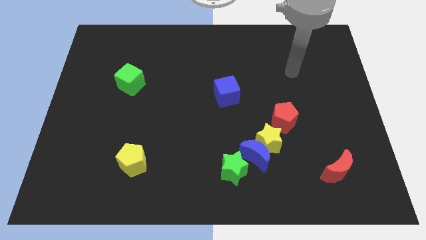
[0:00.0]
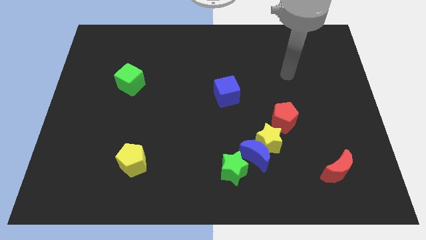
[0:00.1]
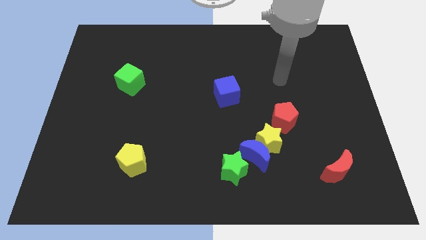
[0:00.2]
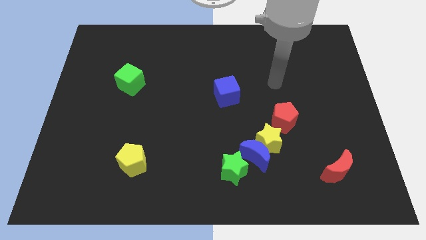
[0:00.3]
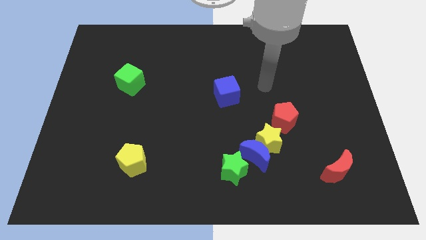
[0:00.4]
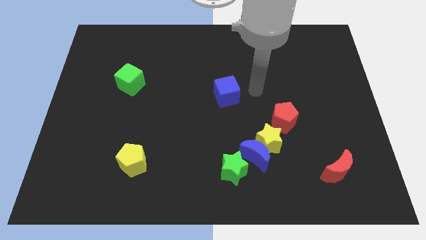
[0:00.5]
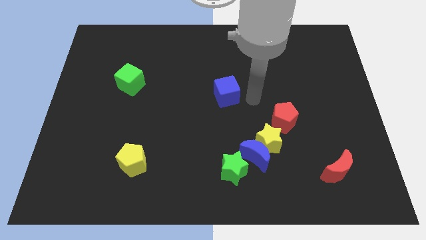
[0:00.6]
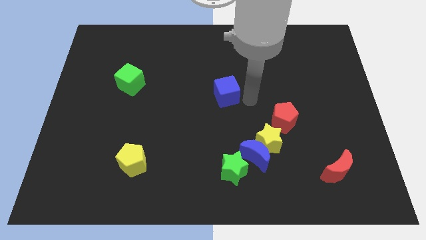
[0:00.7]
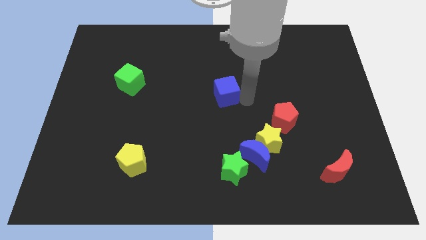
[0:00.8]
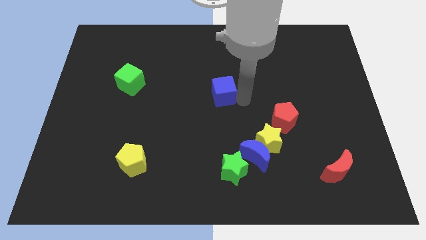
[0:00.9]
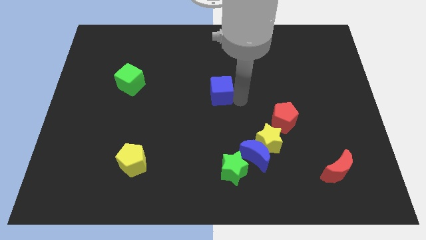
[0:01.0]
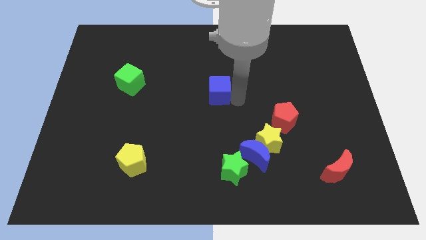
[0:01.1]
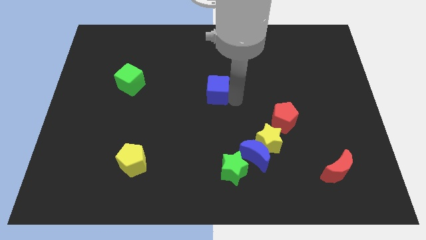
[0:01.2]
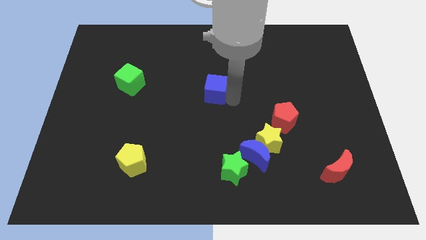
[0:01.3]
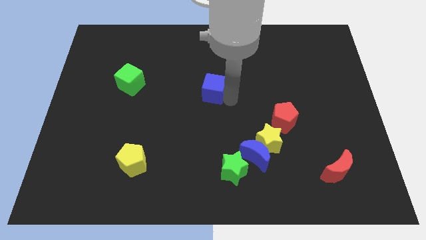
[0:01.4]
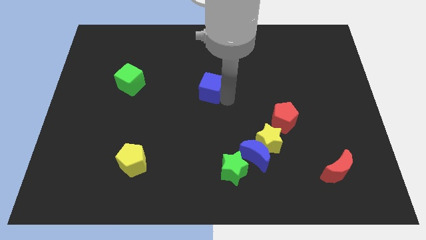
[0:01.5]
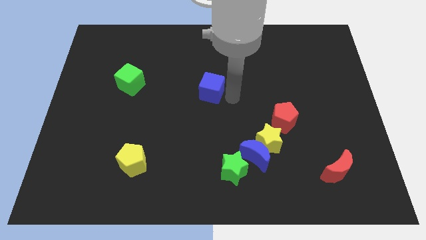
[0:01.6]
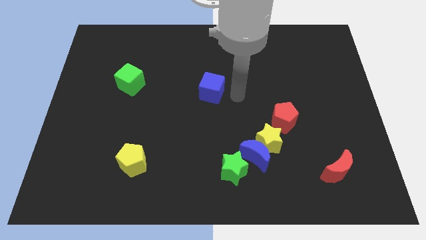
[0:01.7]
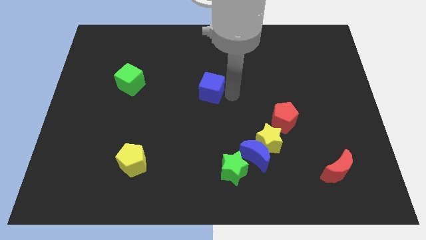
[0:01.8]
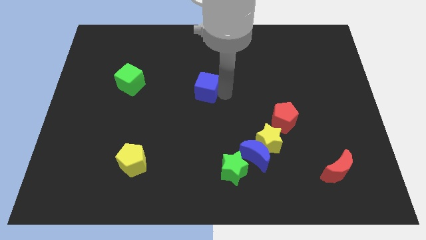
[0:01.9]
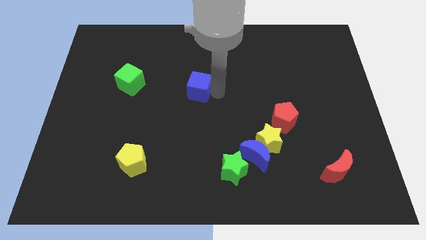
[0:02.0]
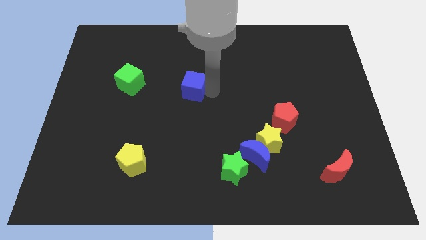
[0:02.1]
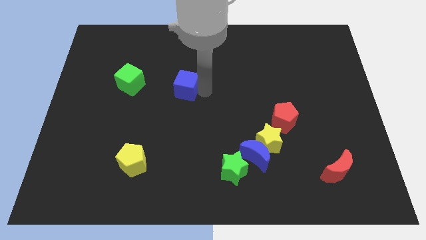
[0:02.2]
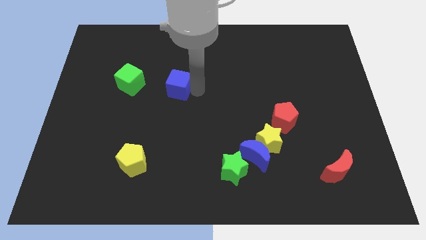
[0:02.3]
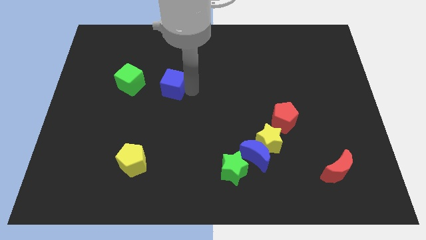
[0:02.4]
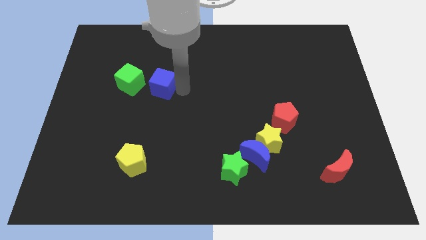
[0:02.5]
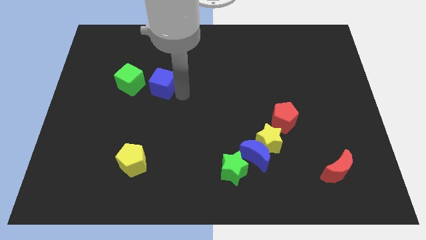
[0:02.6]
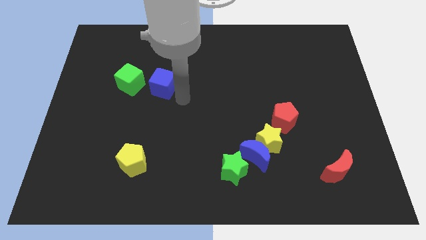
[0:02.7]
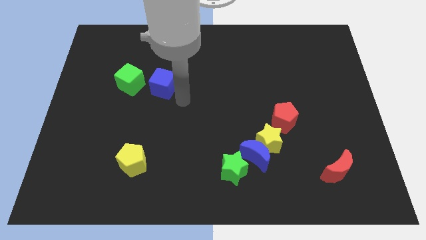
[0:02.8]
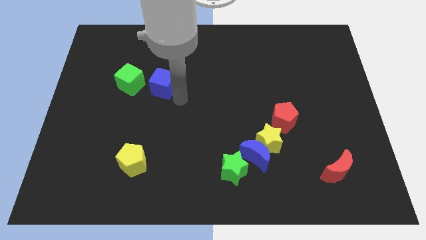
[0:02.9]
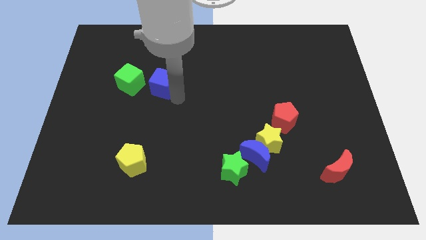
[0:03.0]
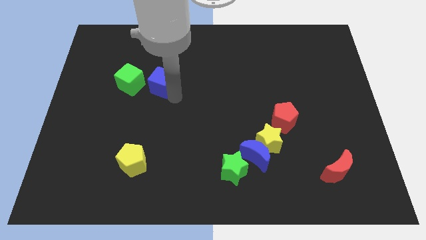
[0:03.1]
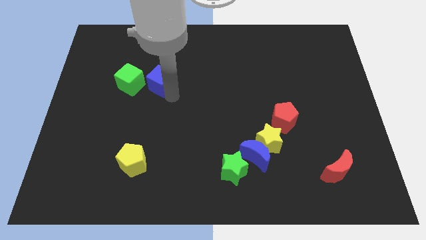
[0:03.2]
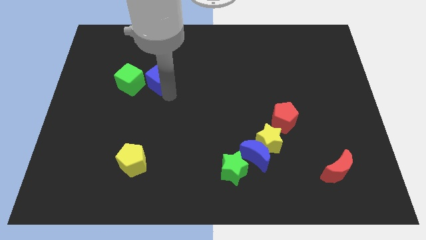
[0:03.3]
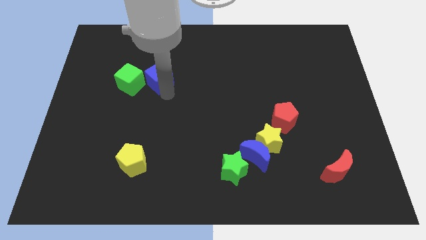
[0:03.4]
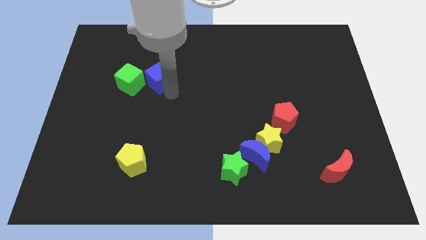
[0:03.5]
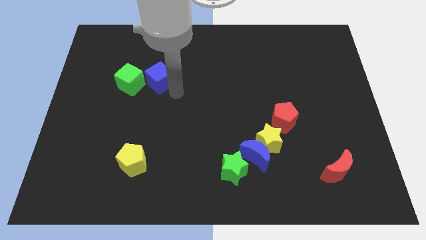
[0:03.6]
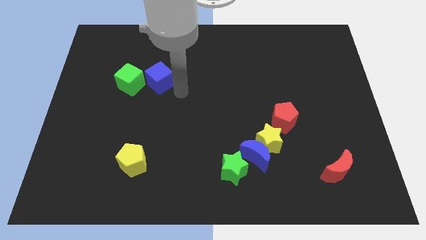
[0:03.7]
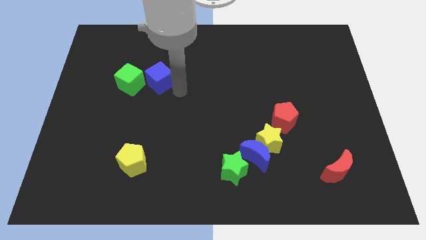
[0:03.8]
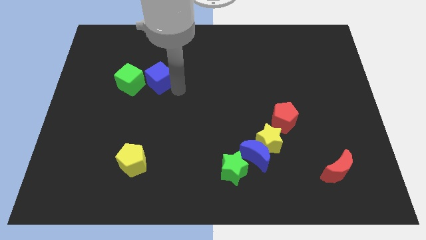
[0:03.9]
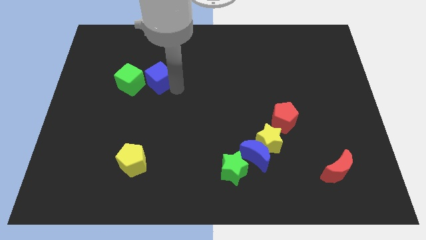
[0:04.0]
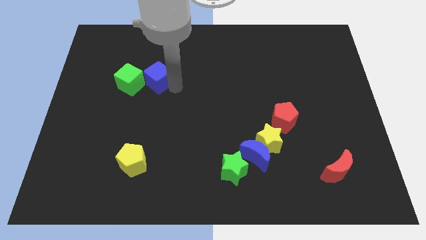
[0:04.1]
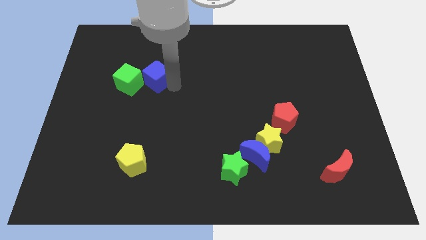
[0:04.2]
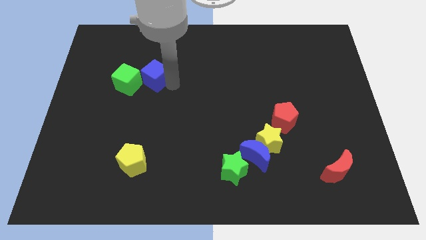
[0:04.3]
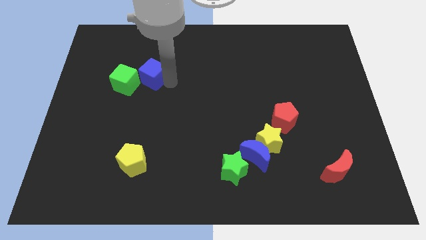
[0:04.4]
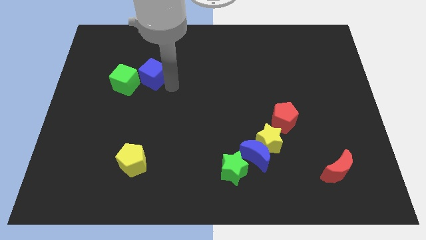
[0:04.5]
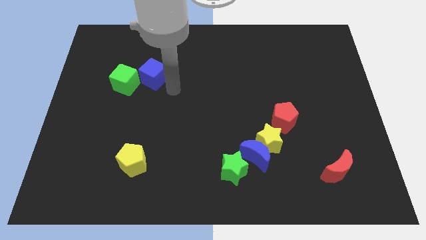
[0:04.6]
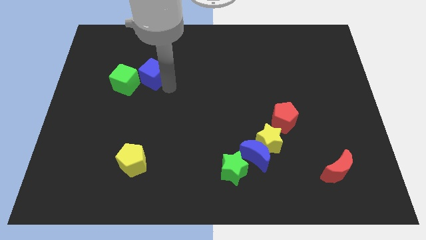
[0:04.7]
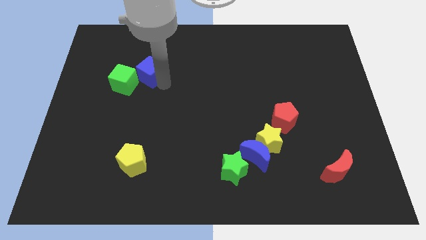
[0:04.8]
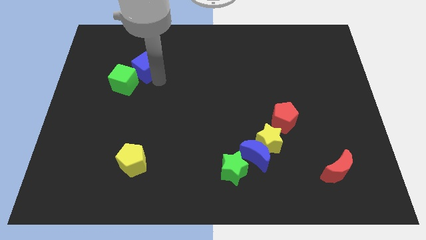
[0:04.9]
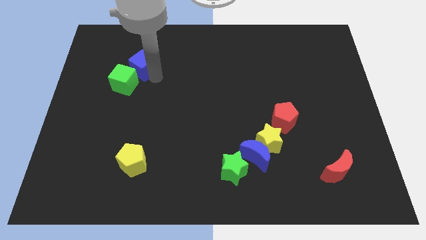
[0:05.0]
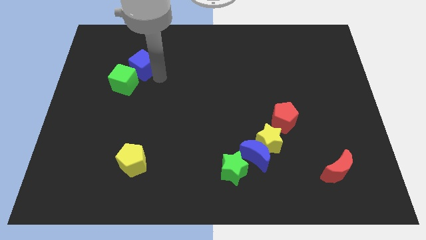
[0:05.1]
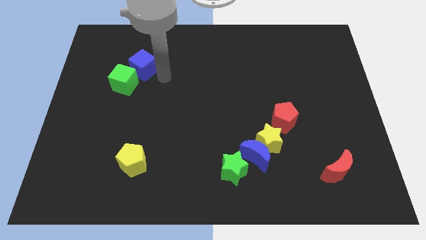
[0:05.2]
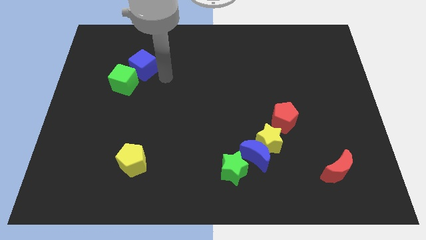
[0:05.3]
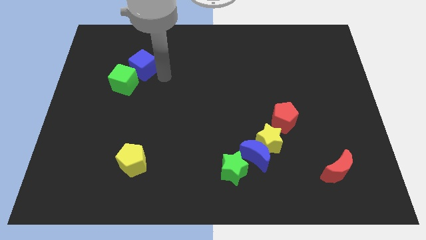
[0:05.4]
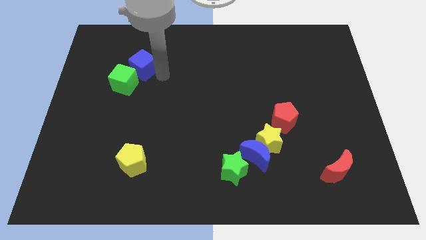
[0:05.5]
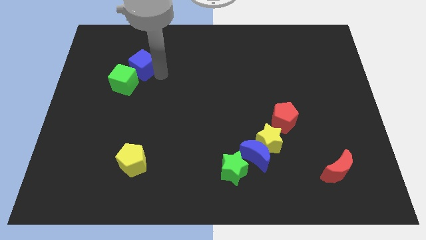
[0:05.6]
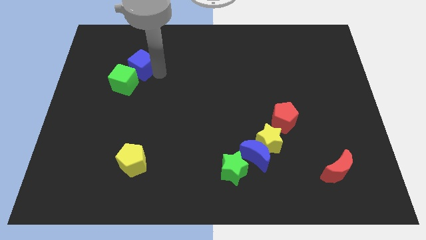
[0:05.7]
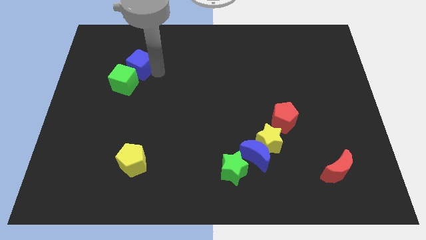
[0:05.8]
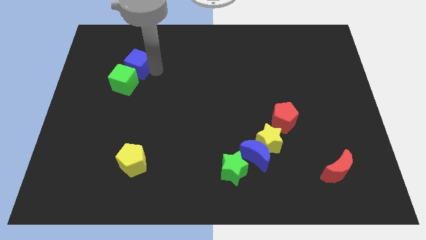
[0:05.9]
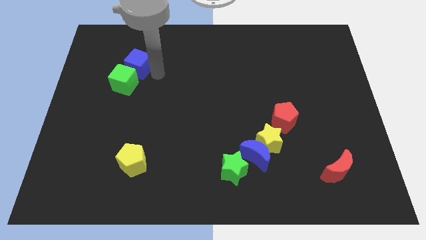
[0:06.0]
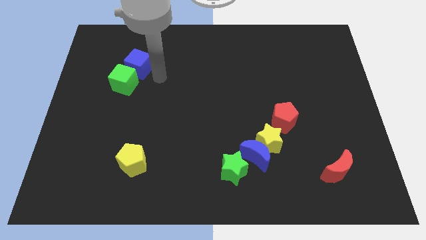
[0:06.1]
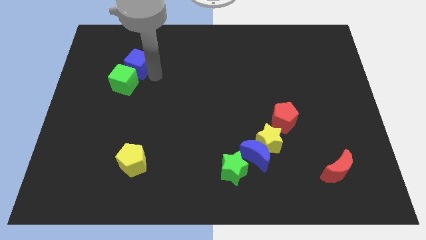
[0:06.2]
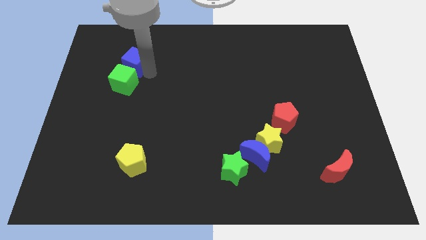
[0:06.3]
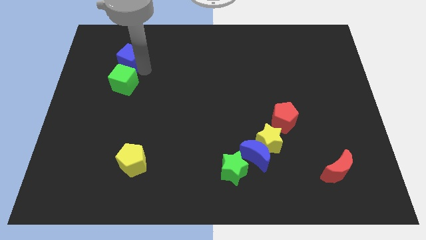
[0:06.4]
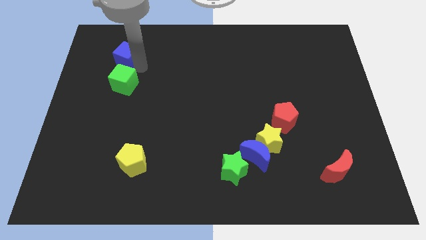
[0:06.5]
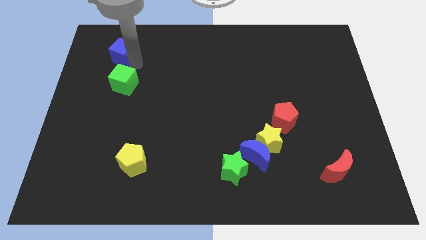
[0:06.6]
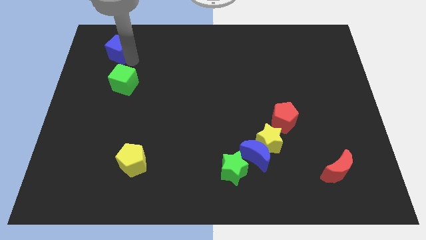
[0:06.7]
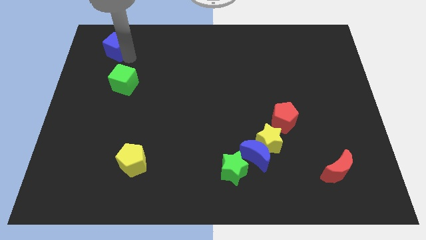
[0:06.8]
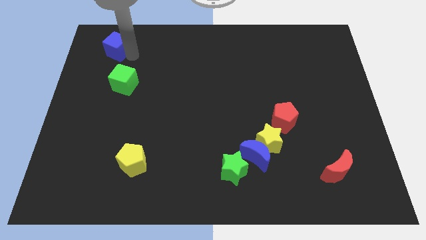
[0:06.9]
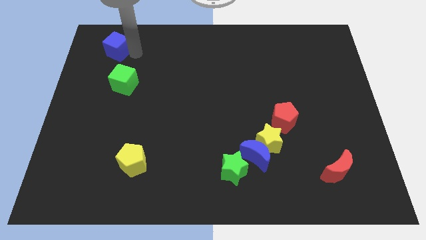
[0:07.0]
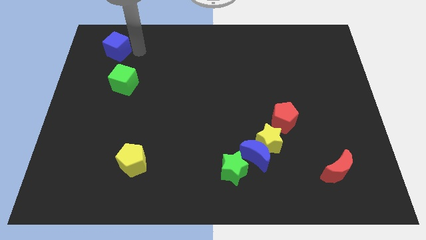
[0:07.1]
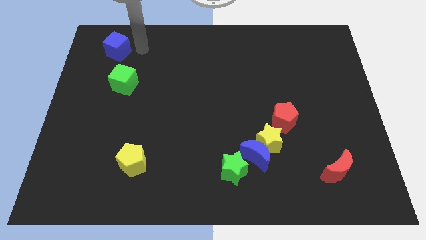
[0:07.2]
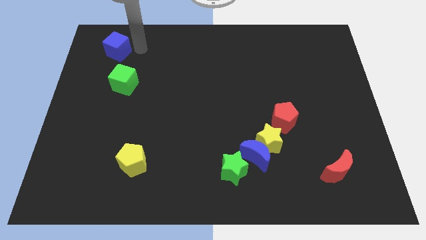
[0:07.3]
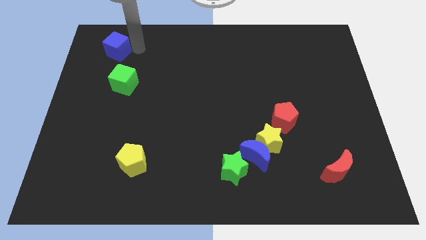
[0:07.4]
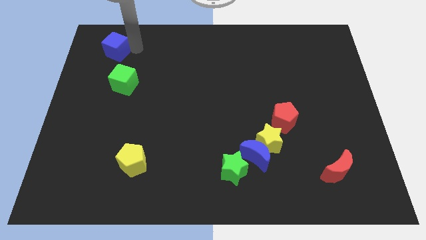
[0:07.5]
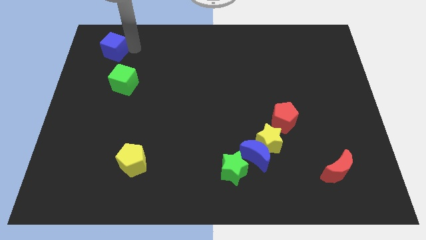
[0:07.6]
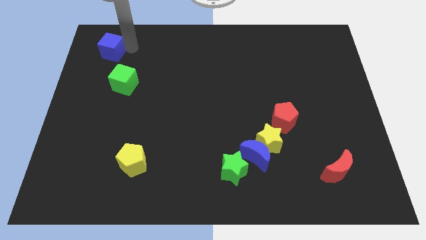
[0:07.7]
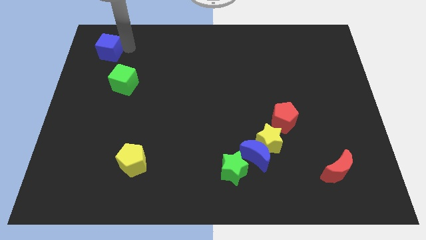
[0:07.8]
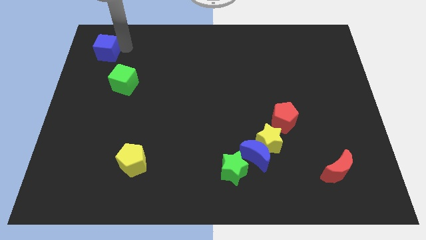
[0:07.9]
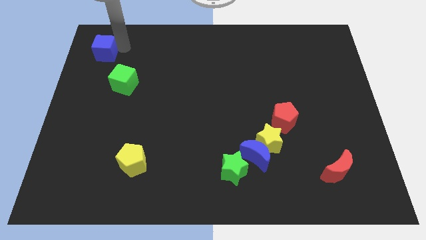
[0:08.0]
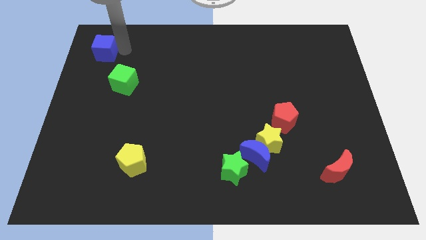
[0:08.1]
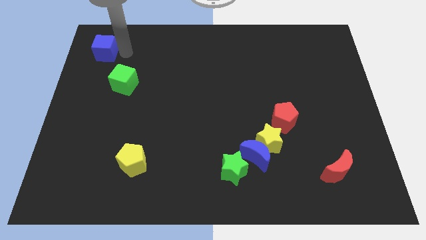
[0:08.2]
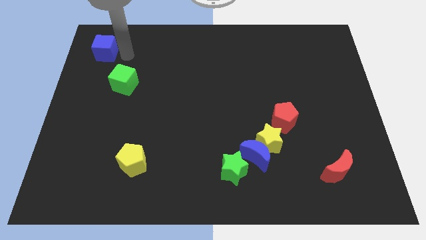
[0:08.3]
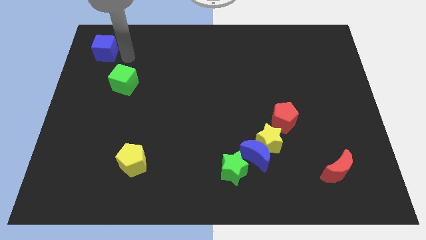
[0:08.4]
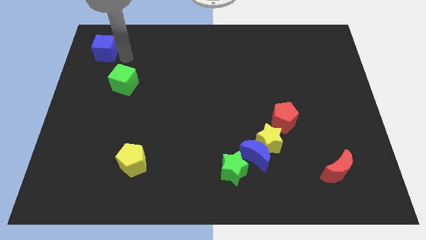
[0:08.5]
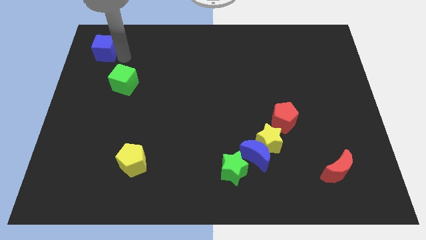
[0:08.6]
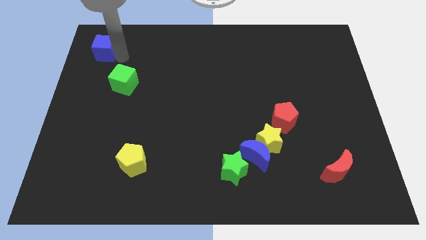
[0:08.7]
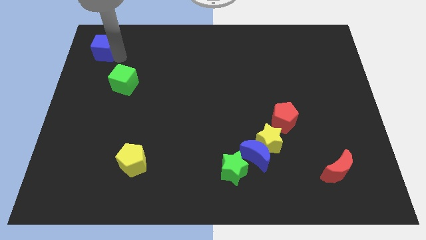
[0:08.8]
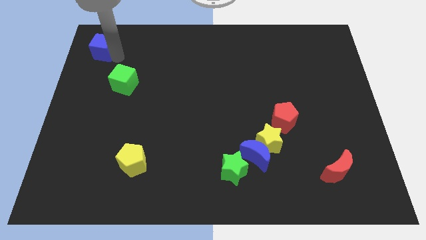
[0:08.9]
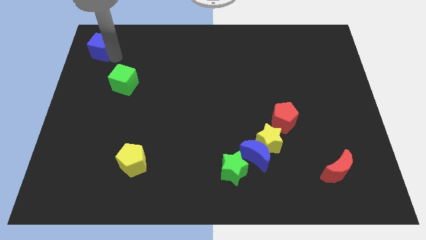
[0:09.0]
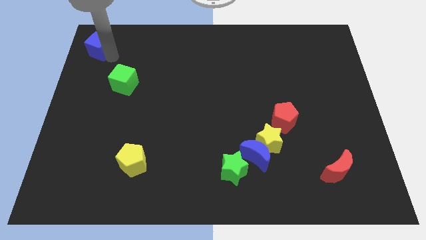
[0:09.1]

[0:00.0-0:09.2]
push the blue cube to the top left corner
